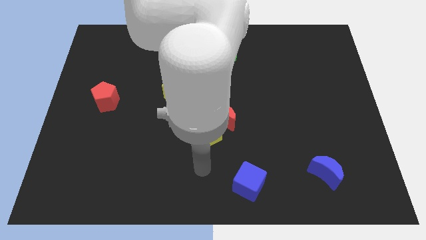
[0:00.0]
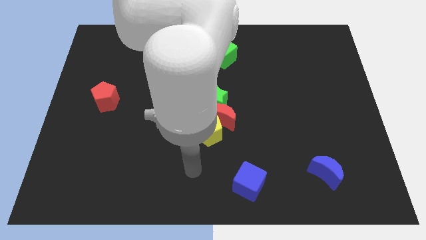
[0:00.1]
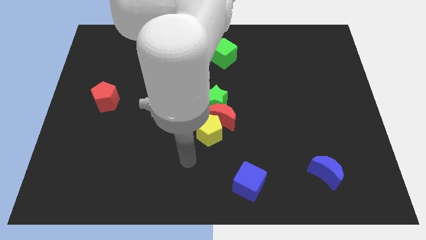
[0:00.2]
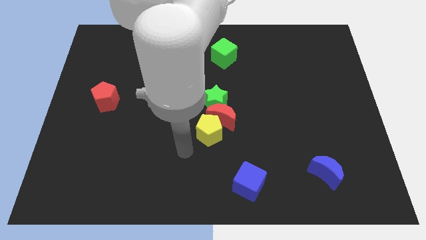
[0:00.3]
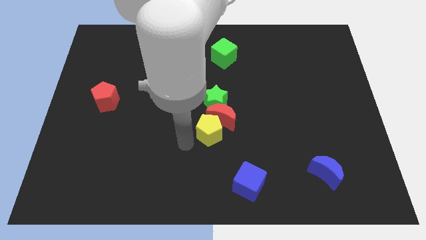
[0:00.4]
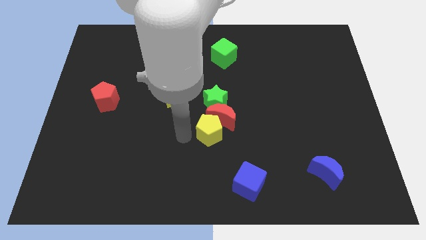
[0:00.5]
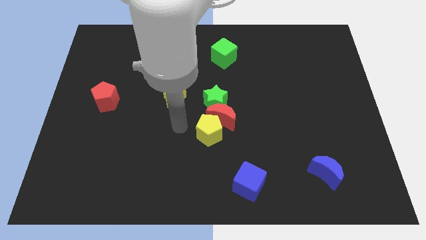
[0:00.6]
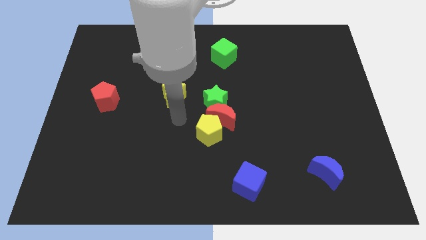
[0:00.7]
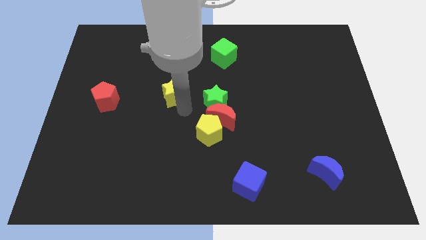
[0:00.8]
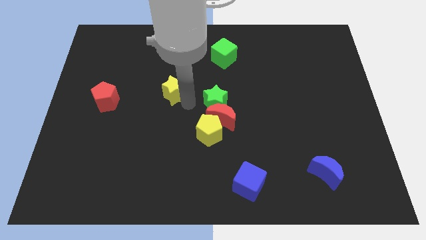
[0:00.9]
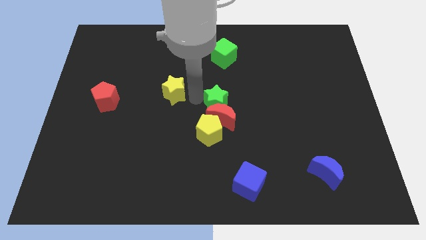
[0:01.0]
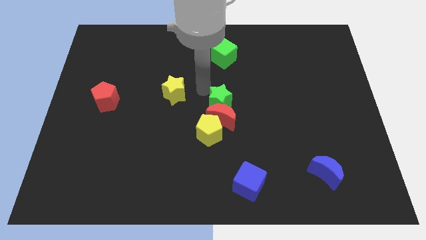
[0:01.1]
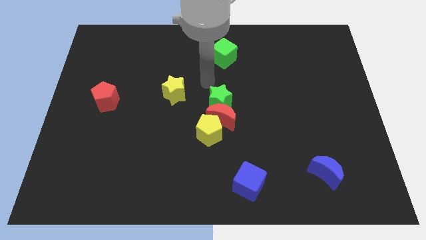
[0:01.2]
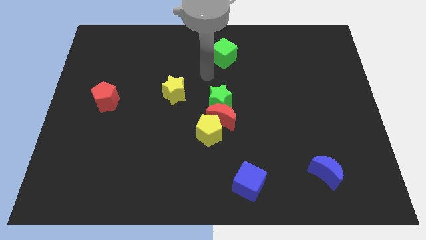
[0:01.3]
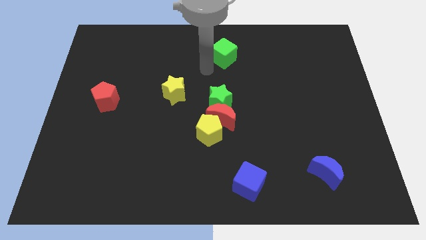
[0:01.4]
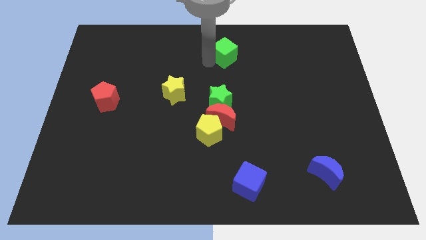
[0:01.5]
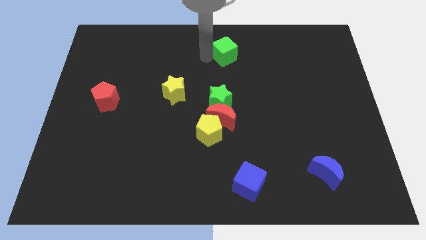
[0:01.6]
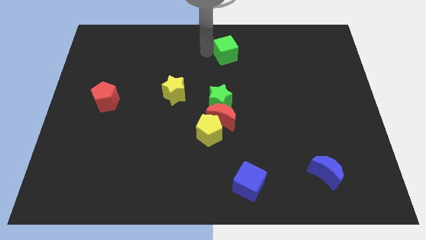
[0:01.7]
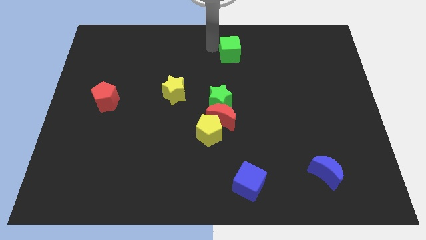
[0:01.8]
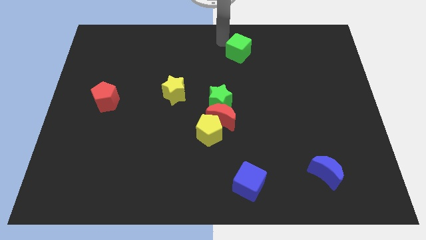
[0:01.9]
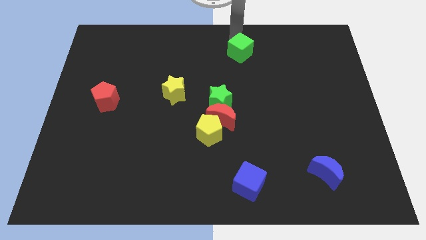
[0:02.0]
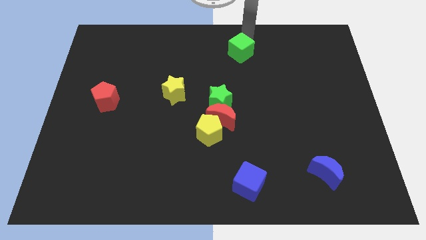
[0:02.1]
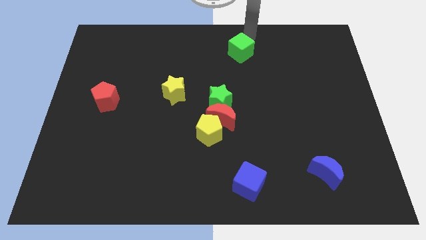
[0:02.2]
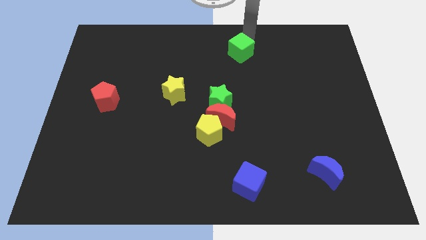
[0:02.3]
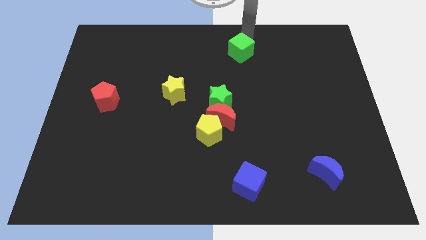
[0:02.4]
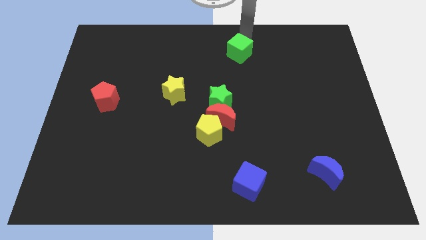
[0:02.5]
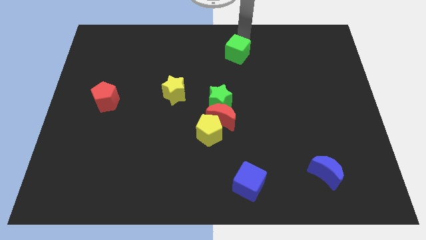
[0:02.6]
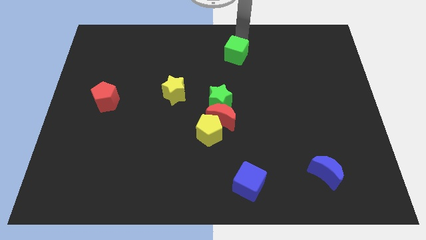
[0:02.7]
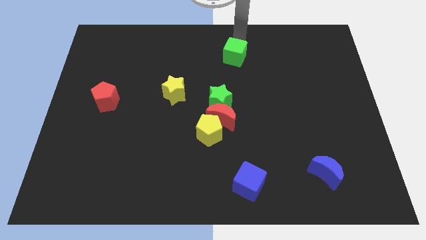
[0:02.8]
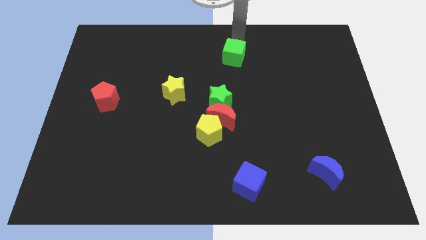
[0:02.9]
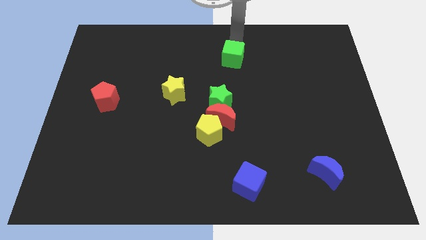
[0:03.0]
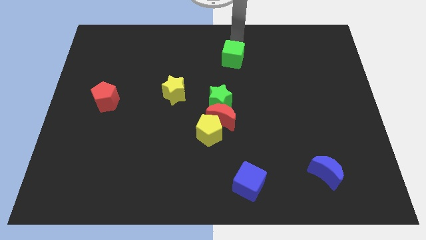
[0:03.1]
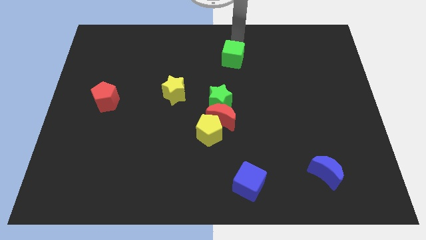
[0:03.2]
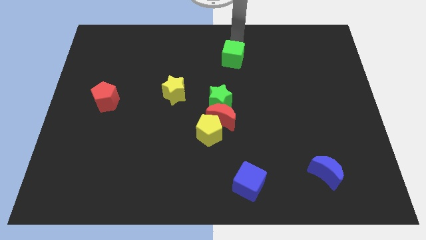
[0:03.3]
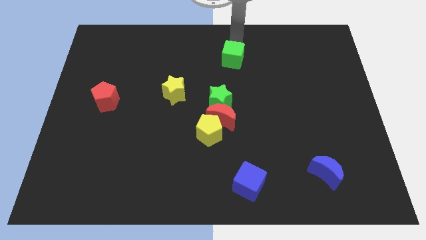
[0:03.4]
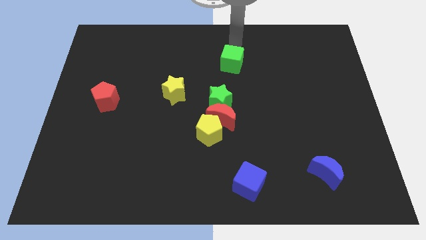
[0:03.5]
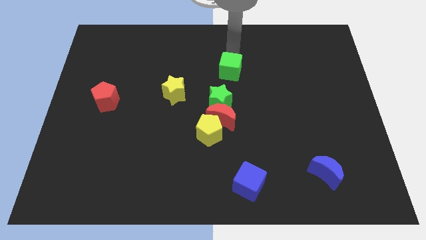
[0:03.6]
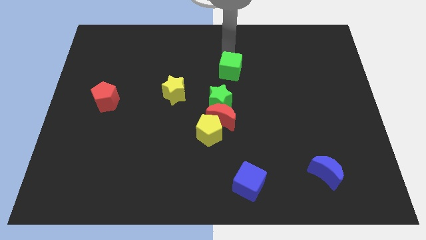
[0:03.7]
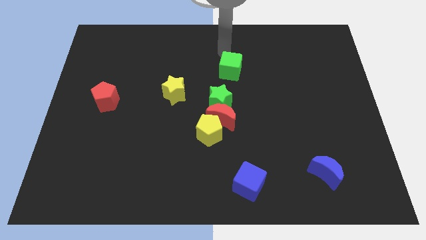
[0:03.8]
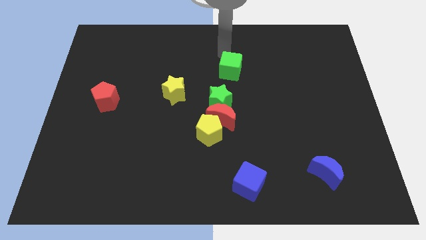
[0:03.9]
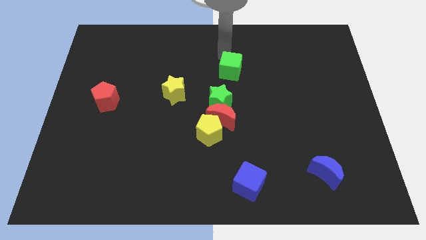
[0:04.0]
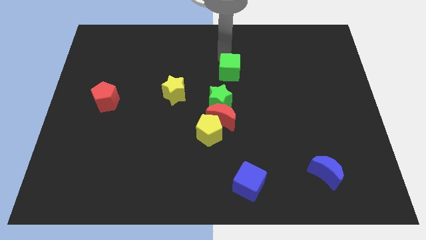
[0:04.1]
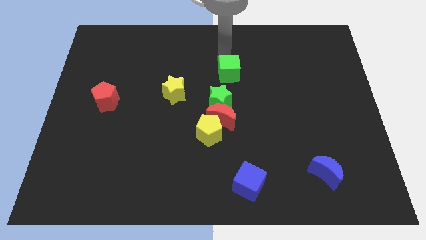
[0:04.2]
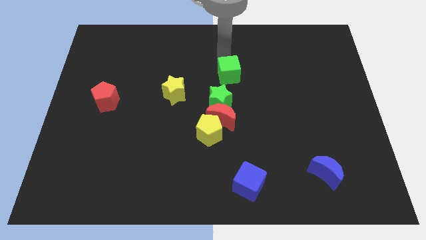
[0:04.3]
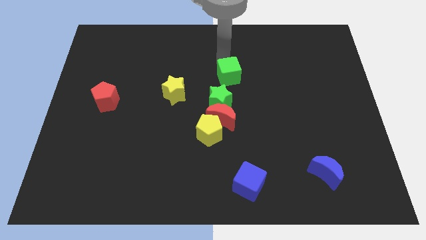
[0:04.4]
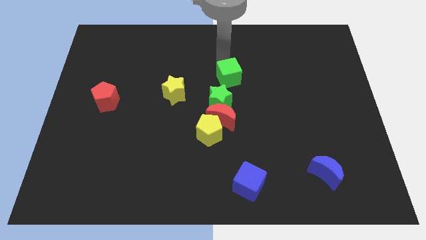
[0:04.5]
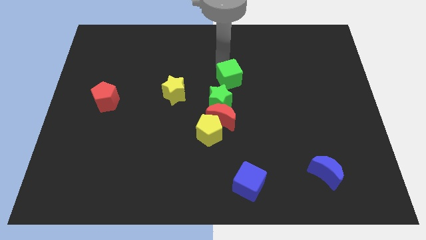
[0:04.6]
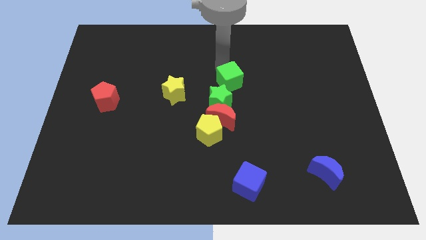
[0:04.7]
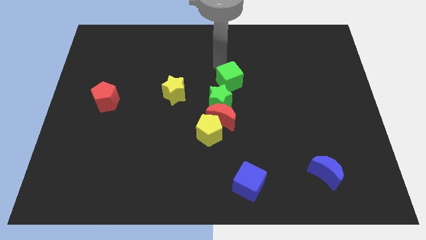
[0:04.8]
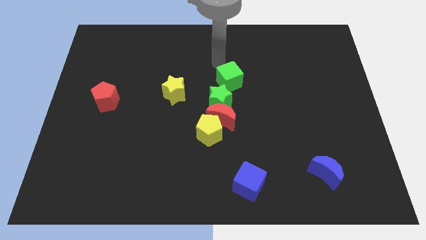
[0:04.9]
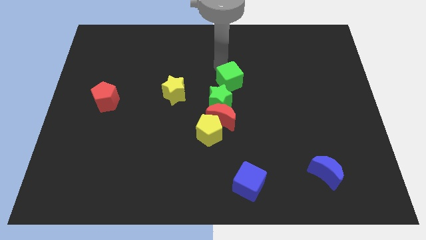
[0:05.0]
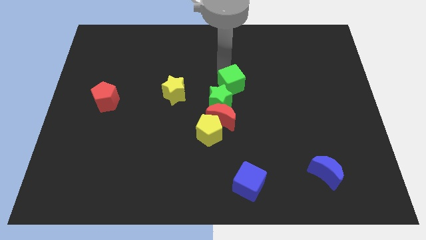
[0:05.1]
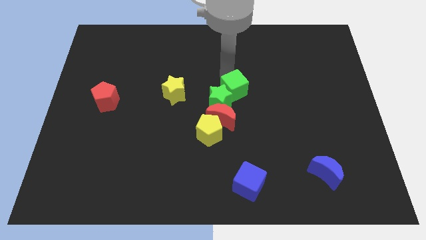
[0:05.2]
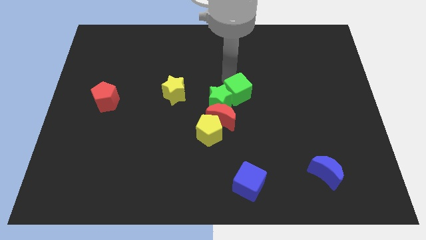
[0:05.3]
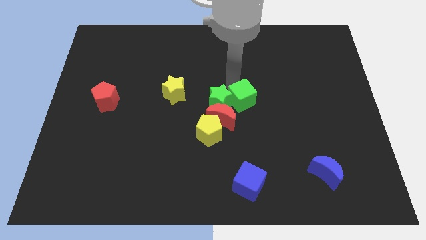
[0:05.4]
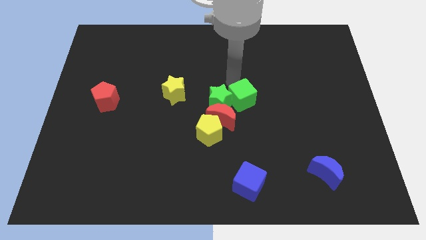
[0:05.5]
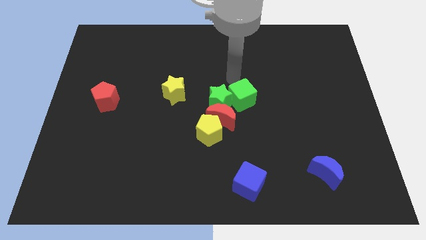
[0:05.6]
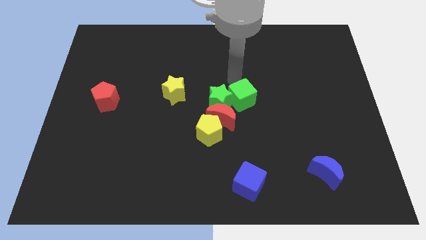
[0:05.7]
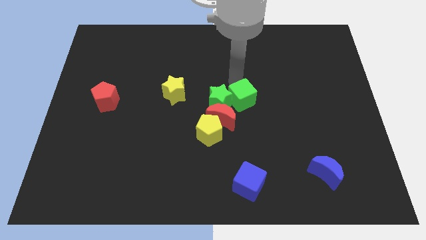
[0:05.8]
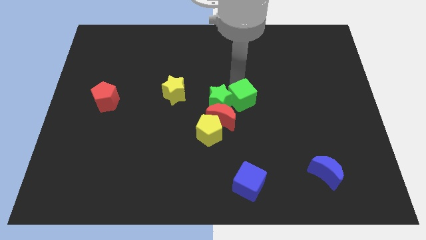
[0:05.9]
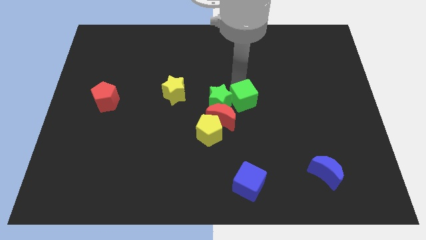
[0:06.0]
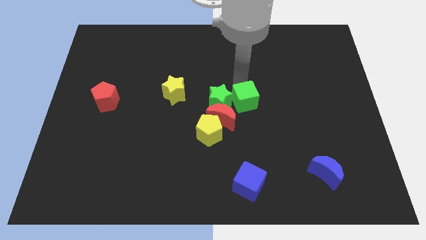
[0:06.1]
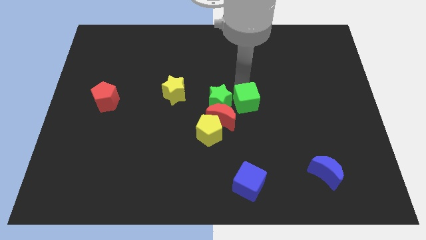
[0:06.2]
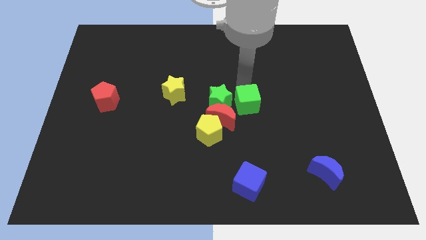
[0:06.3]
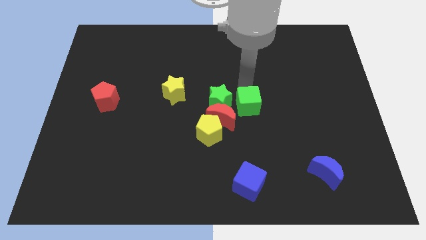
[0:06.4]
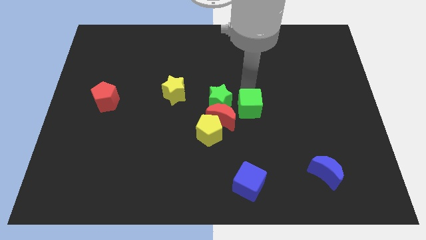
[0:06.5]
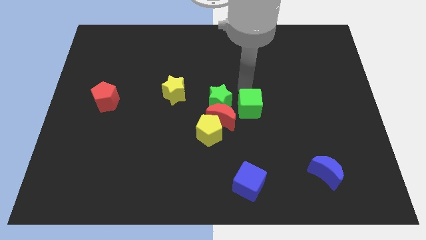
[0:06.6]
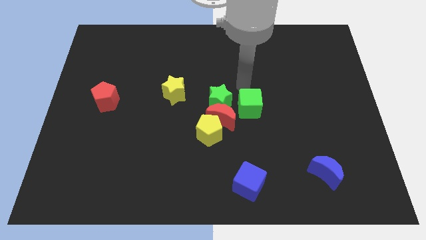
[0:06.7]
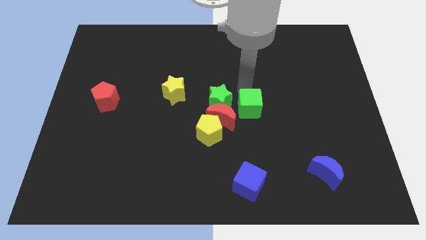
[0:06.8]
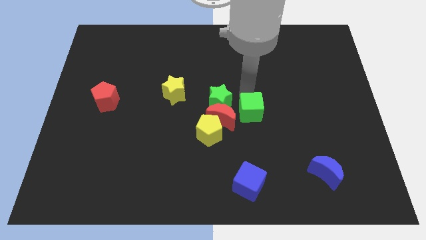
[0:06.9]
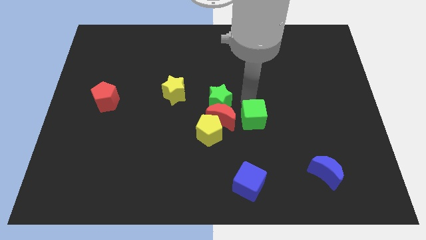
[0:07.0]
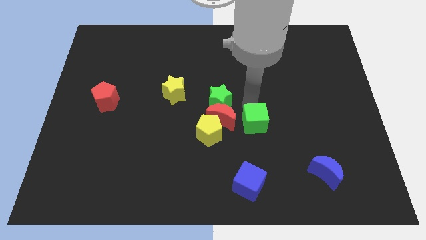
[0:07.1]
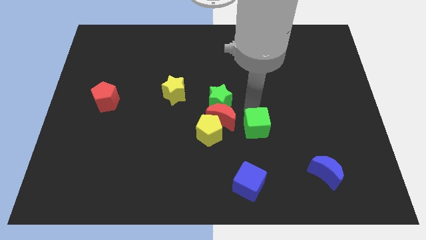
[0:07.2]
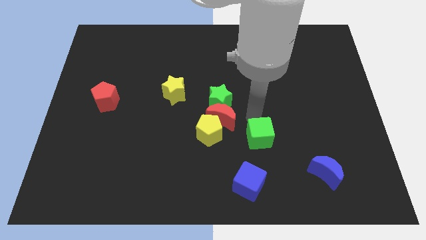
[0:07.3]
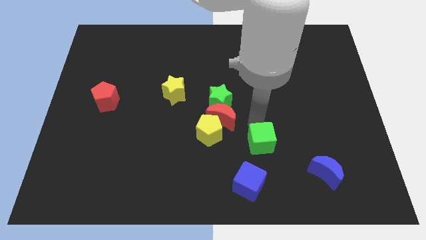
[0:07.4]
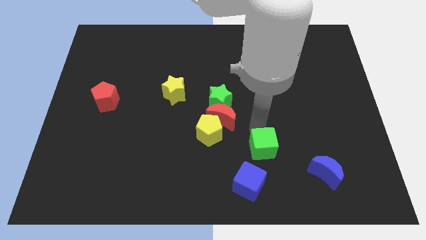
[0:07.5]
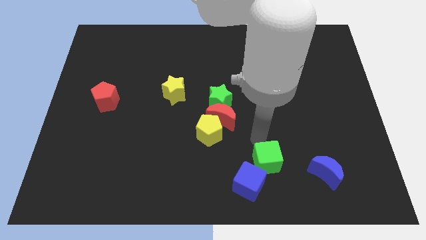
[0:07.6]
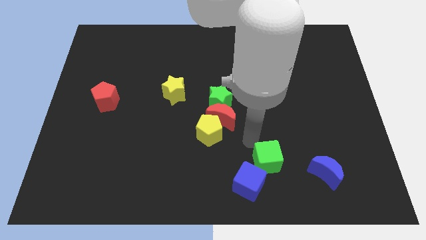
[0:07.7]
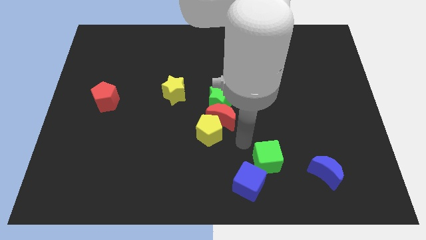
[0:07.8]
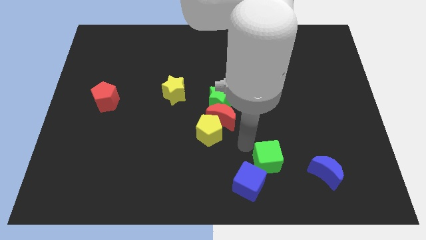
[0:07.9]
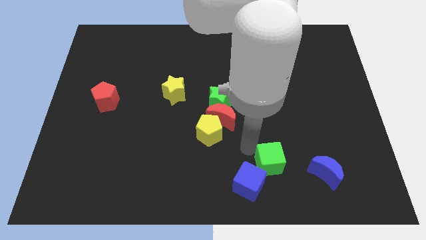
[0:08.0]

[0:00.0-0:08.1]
move the green cube right of the blue cube
